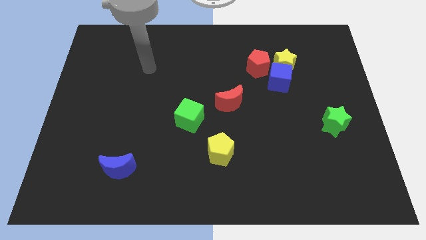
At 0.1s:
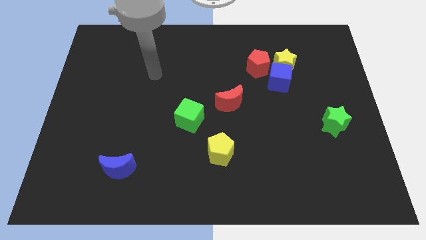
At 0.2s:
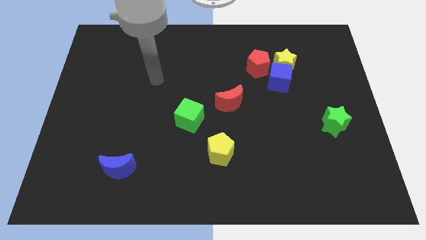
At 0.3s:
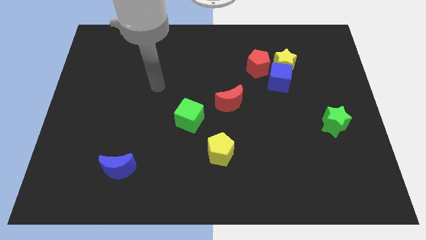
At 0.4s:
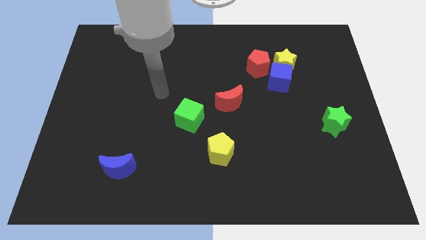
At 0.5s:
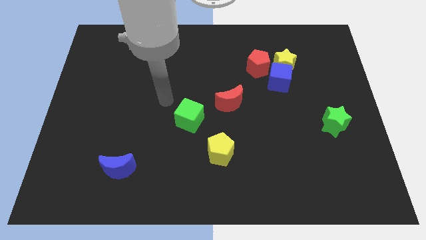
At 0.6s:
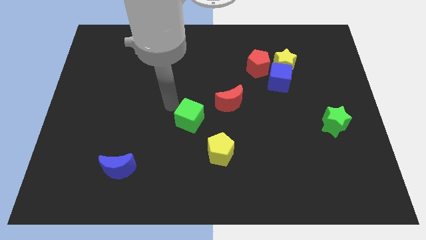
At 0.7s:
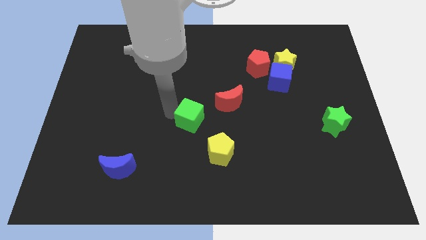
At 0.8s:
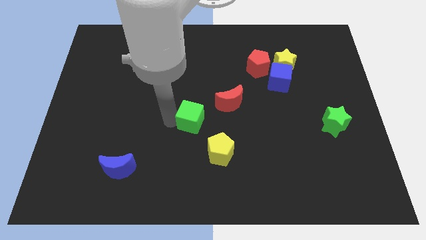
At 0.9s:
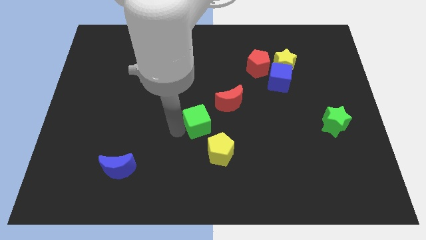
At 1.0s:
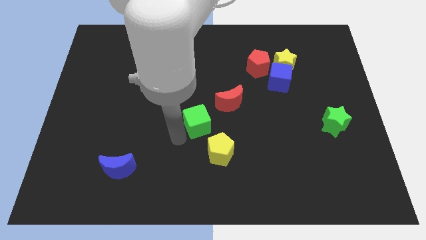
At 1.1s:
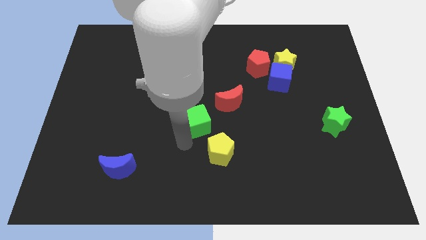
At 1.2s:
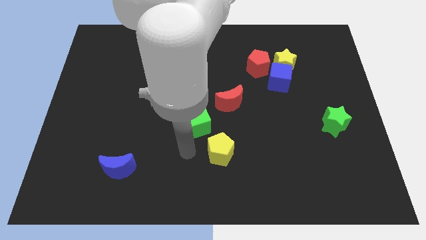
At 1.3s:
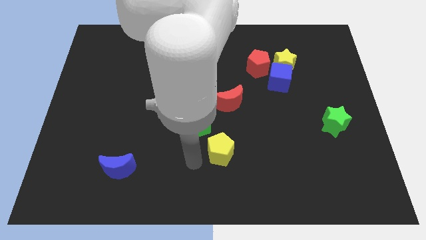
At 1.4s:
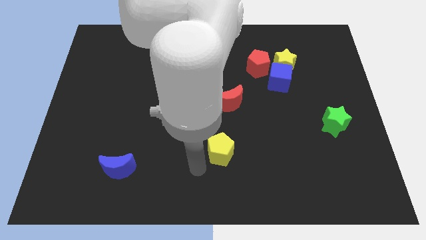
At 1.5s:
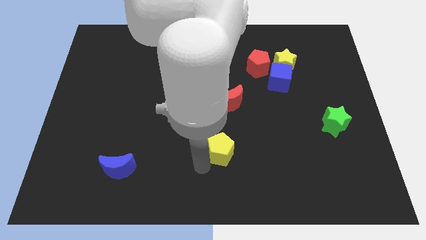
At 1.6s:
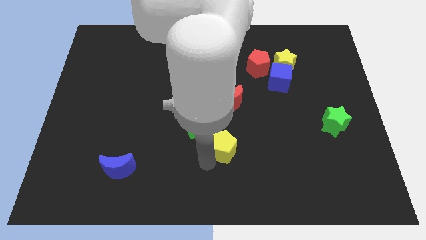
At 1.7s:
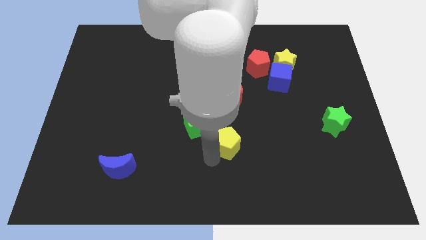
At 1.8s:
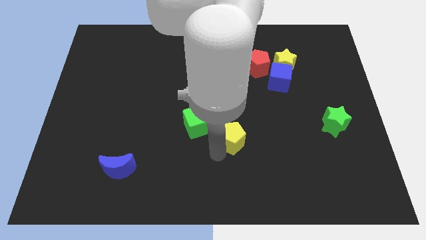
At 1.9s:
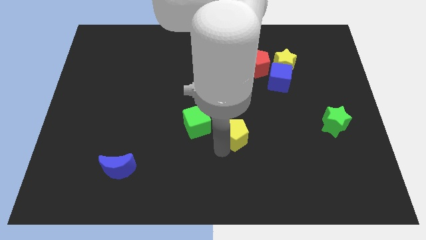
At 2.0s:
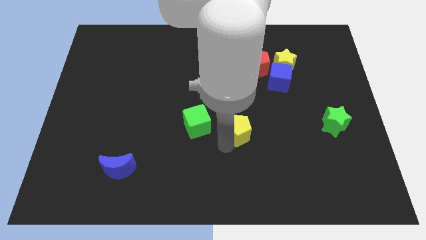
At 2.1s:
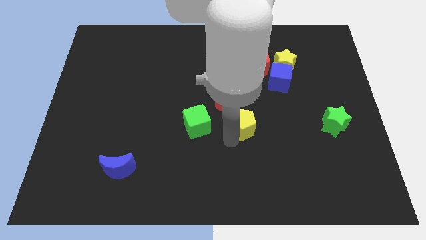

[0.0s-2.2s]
slightly push the yellow pentagon up and right diagonally

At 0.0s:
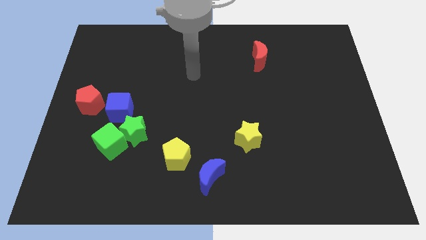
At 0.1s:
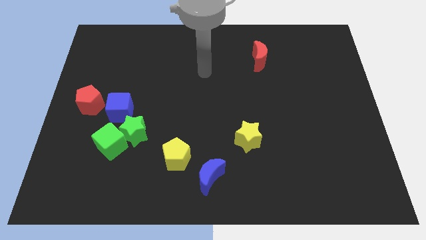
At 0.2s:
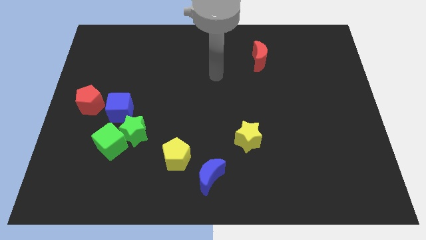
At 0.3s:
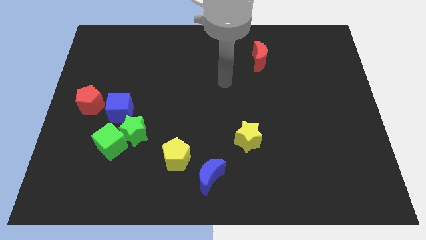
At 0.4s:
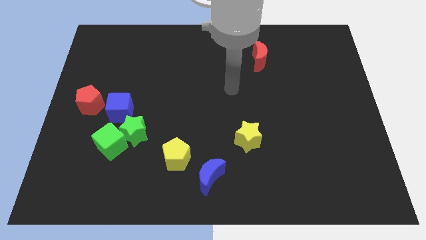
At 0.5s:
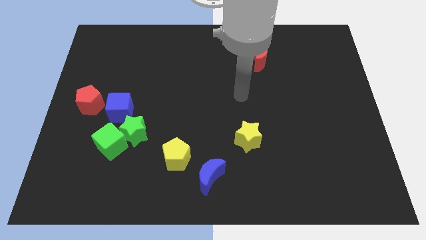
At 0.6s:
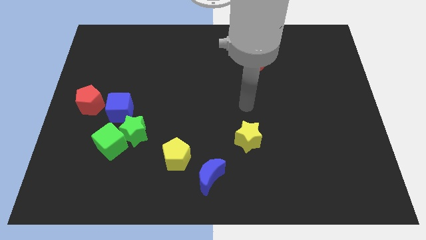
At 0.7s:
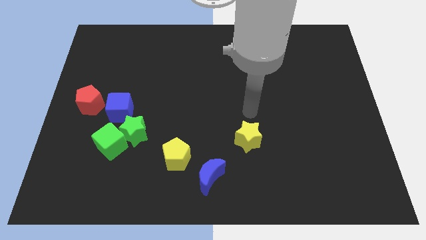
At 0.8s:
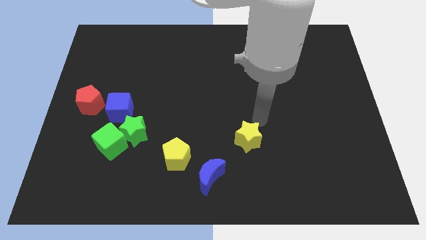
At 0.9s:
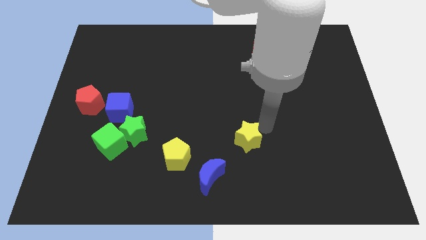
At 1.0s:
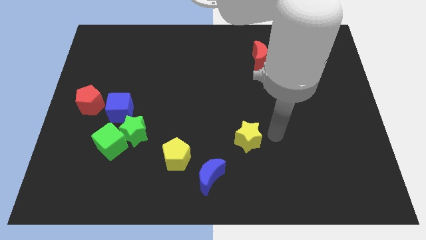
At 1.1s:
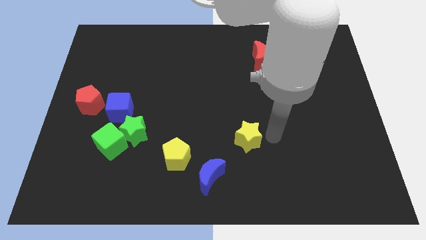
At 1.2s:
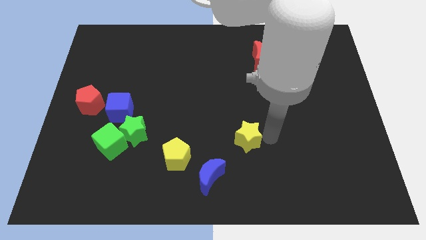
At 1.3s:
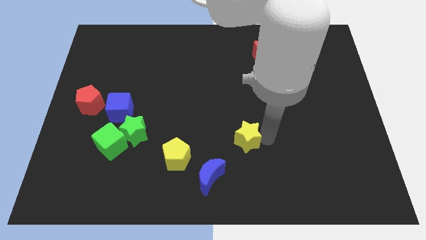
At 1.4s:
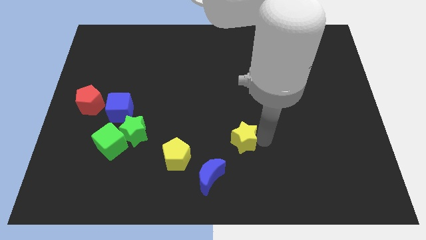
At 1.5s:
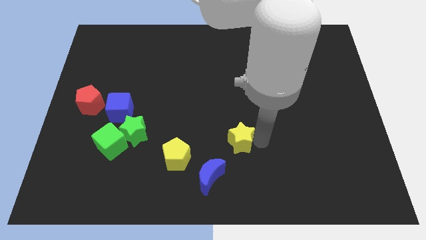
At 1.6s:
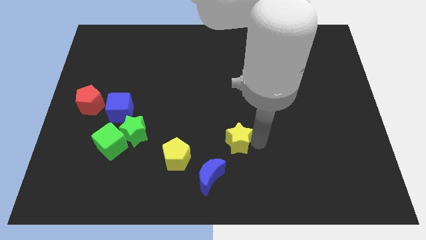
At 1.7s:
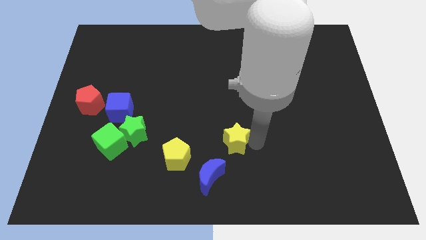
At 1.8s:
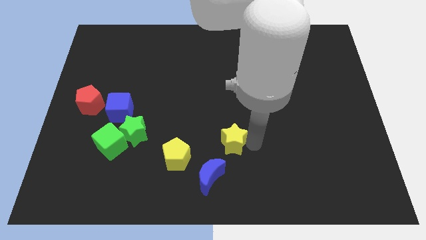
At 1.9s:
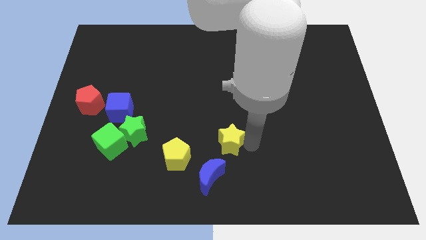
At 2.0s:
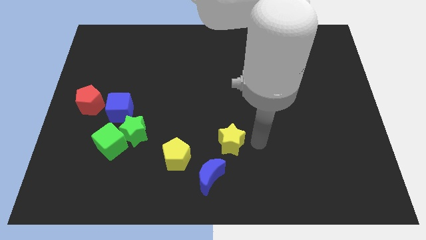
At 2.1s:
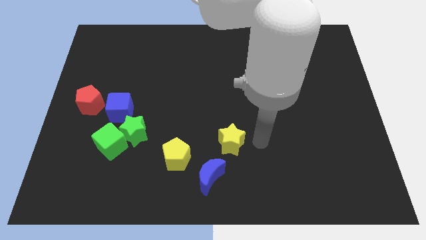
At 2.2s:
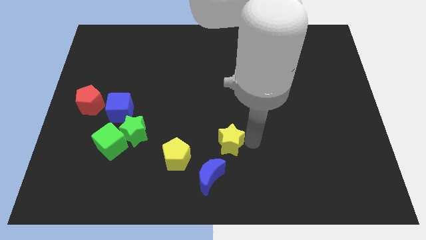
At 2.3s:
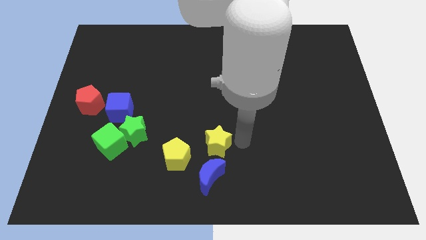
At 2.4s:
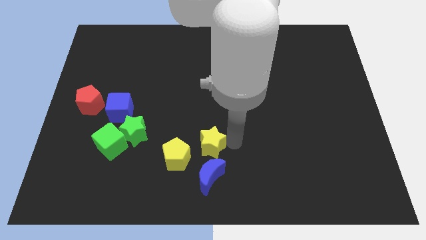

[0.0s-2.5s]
slightly move the yellow star left

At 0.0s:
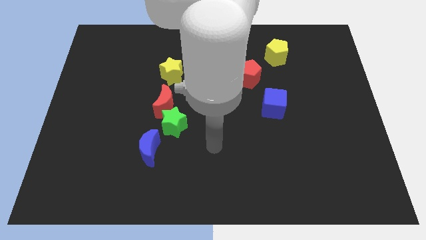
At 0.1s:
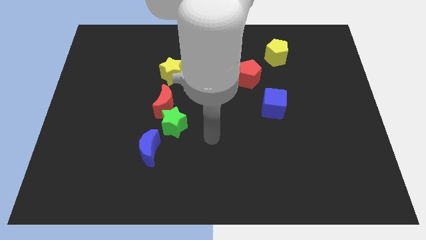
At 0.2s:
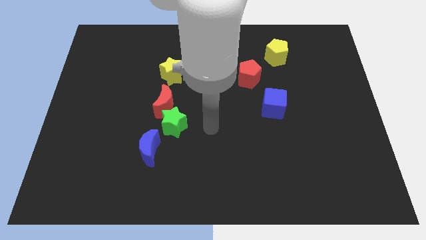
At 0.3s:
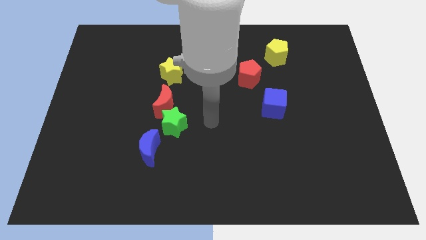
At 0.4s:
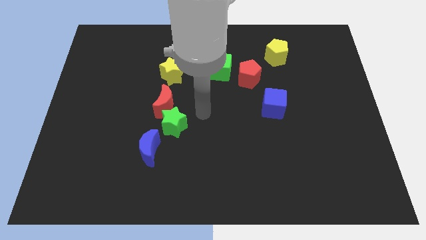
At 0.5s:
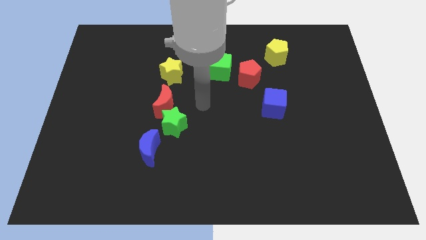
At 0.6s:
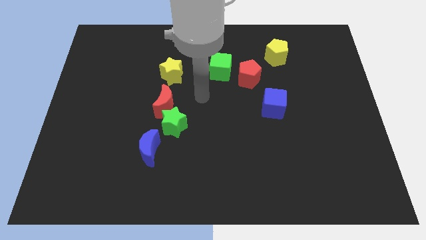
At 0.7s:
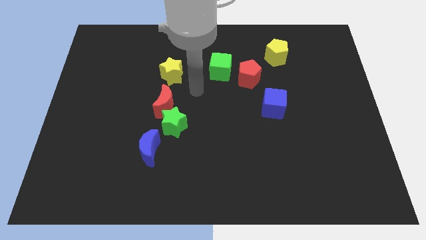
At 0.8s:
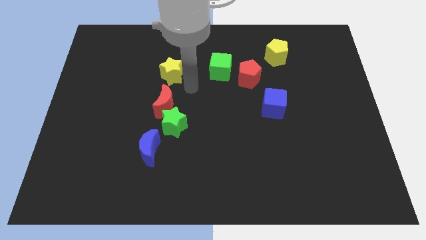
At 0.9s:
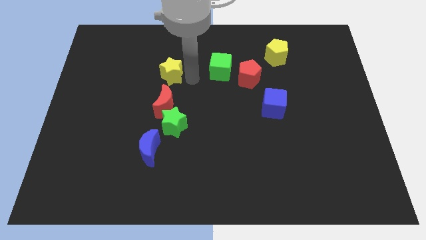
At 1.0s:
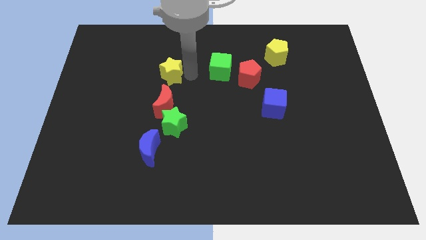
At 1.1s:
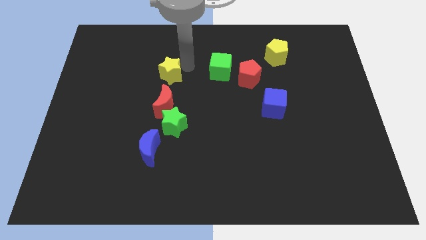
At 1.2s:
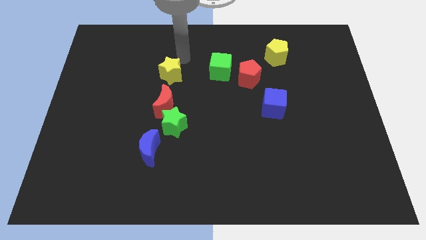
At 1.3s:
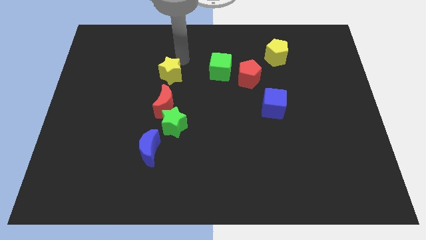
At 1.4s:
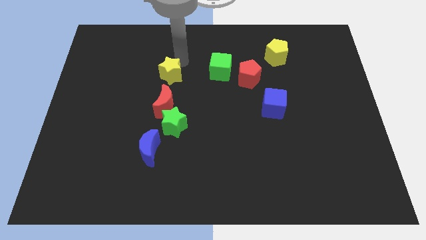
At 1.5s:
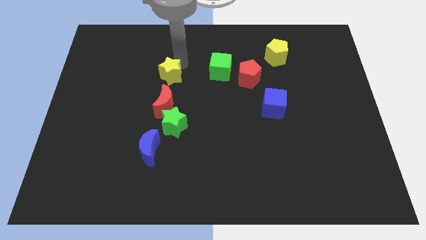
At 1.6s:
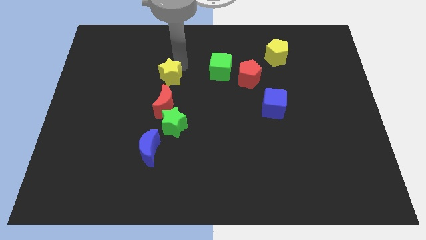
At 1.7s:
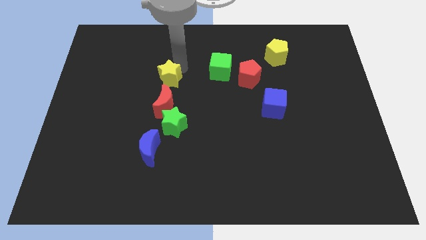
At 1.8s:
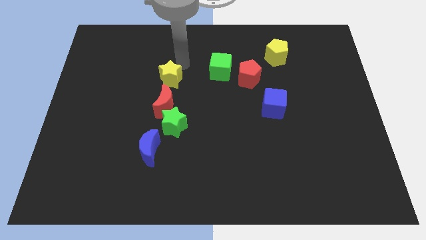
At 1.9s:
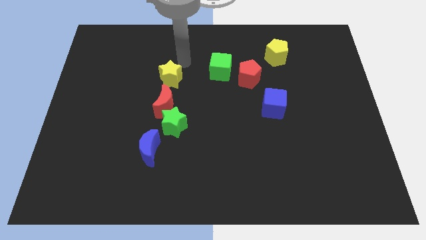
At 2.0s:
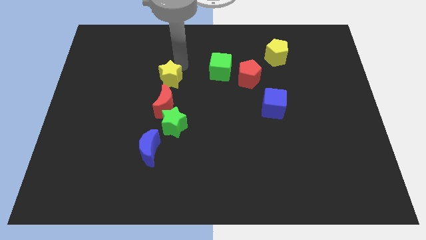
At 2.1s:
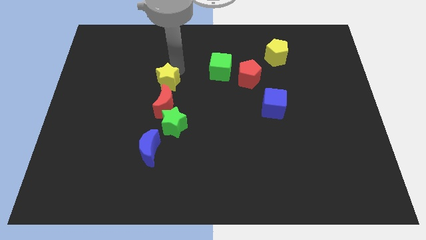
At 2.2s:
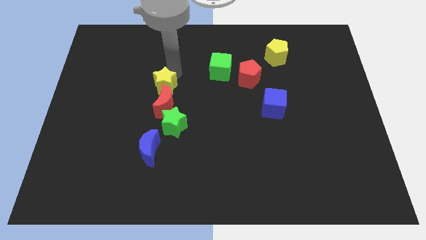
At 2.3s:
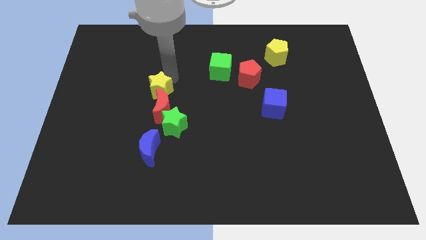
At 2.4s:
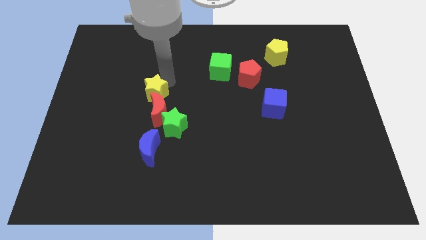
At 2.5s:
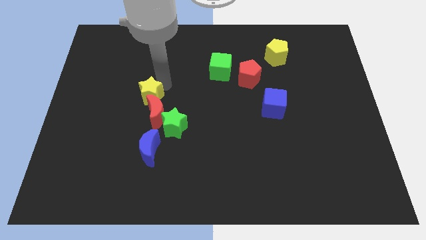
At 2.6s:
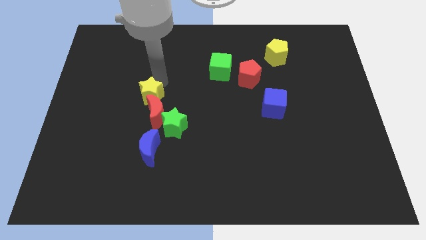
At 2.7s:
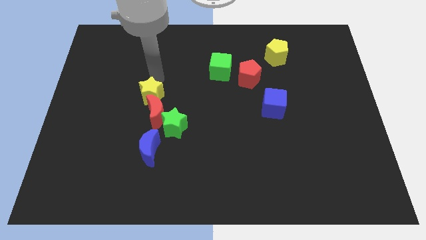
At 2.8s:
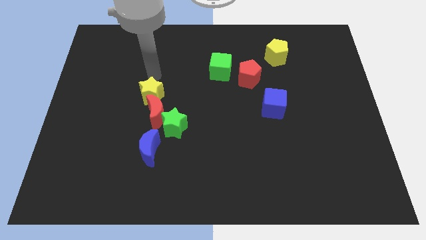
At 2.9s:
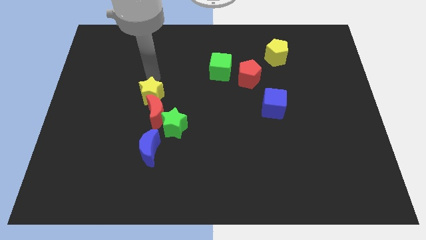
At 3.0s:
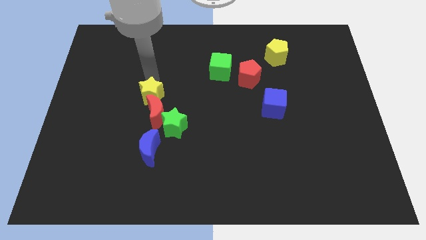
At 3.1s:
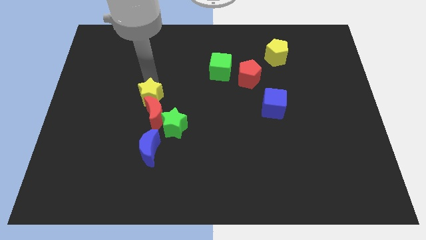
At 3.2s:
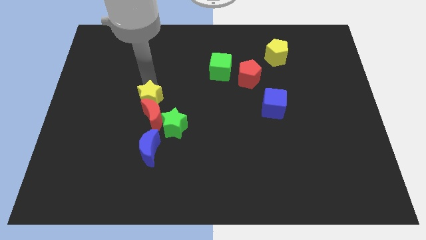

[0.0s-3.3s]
slightly slide the yellow star downwards
